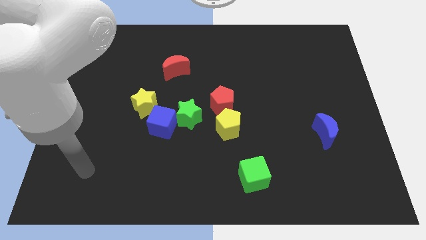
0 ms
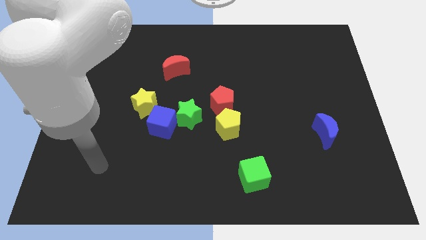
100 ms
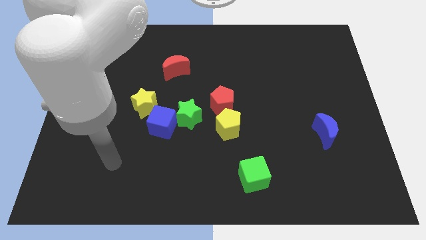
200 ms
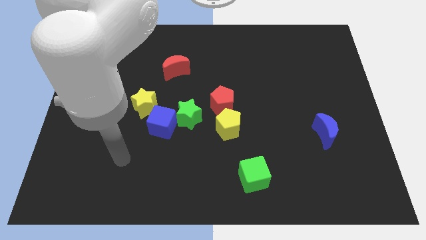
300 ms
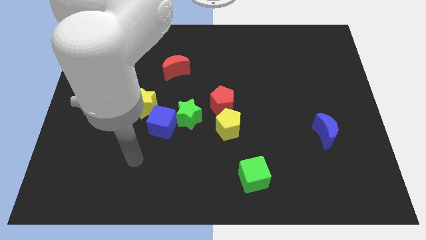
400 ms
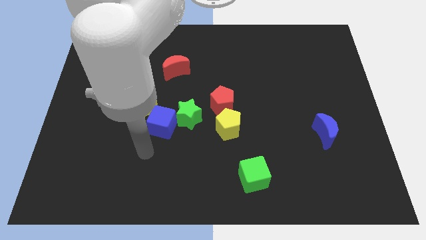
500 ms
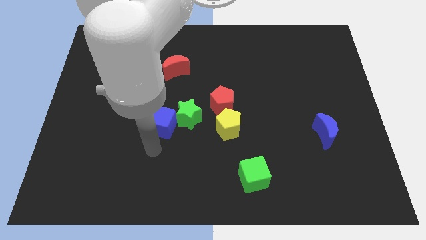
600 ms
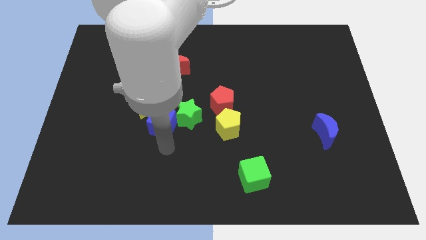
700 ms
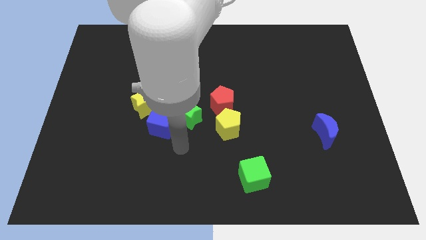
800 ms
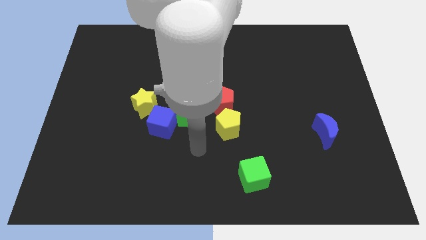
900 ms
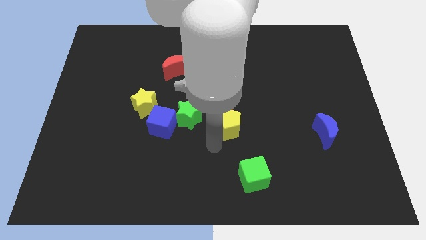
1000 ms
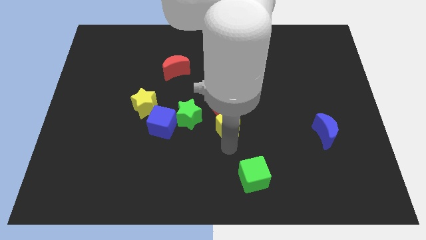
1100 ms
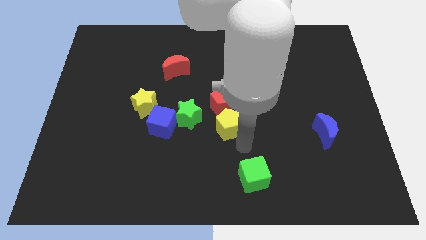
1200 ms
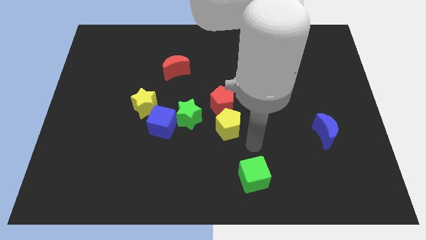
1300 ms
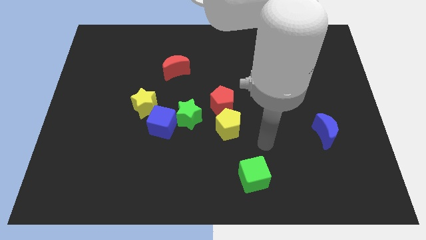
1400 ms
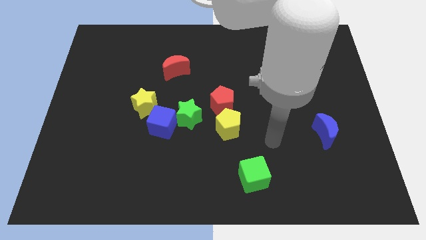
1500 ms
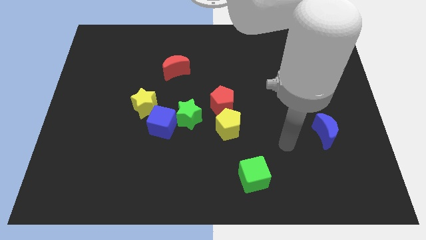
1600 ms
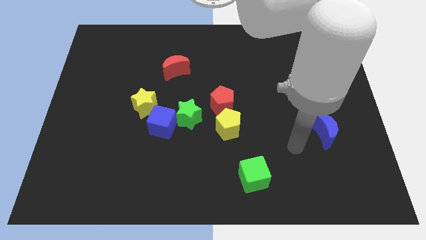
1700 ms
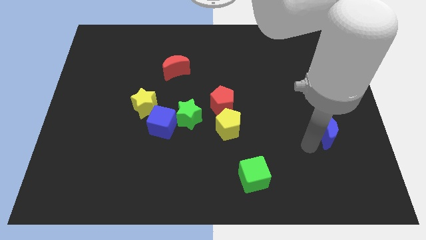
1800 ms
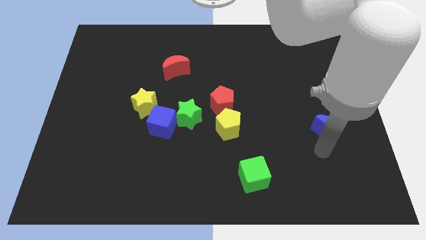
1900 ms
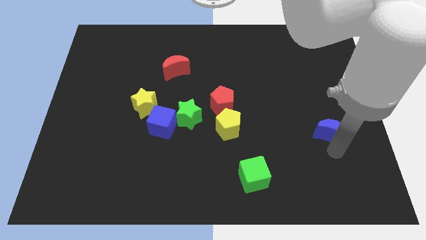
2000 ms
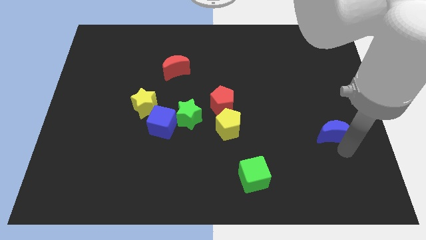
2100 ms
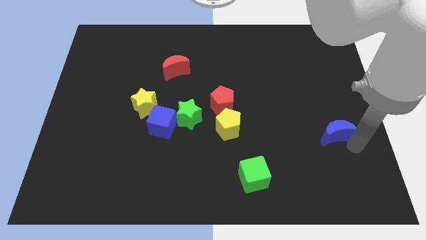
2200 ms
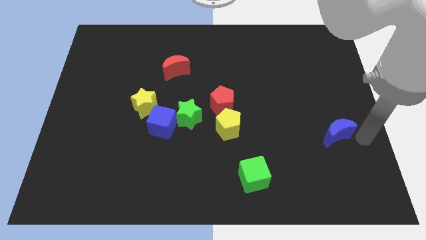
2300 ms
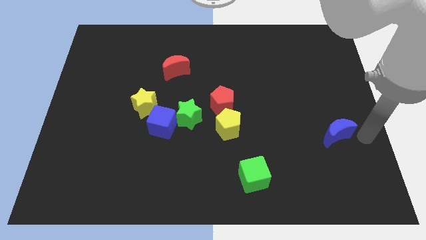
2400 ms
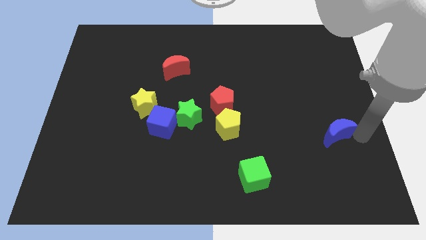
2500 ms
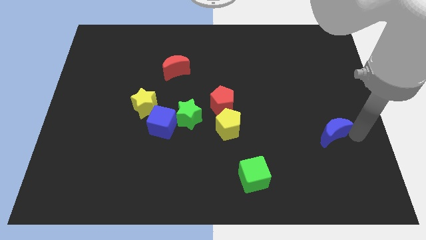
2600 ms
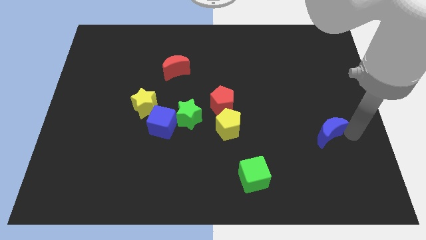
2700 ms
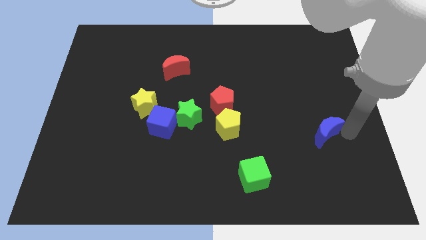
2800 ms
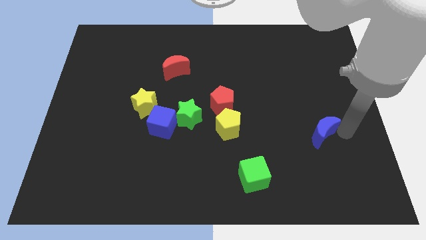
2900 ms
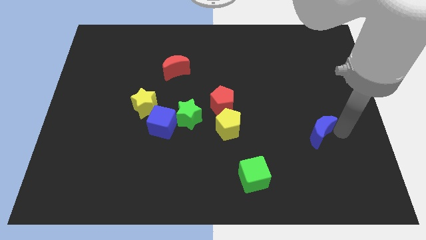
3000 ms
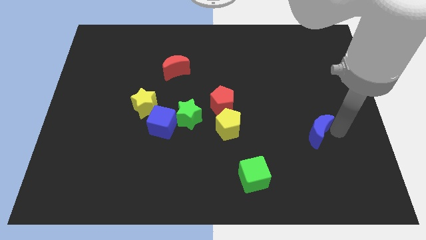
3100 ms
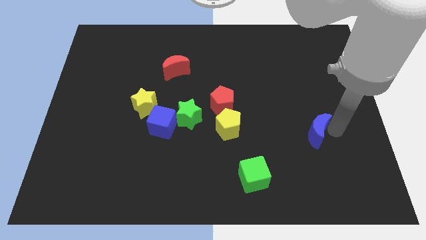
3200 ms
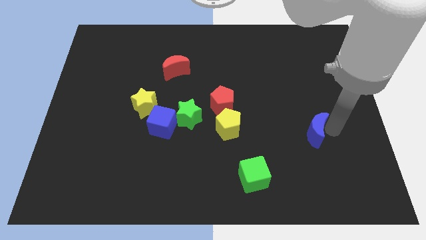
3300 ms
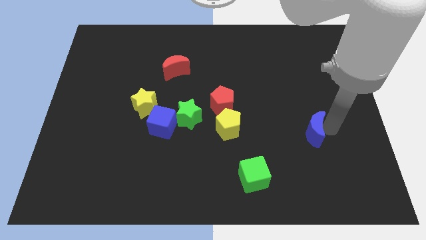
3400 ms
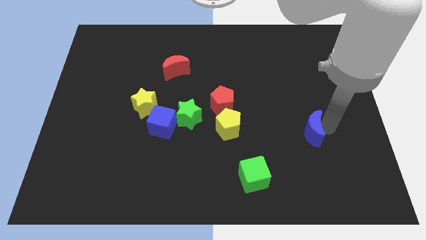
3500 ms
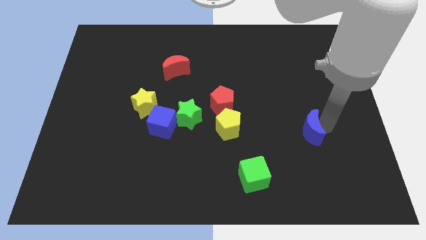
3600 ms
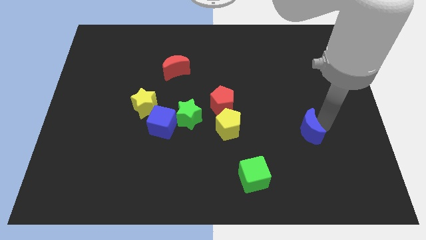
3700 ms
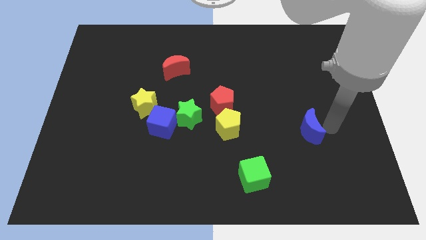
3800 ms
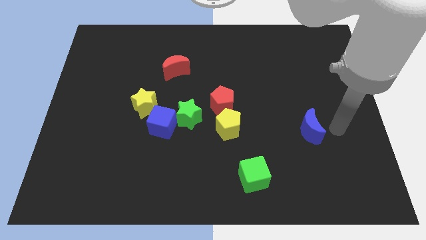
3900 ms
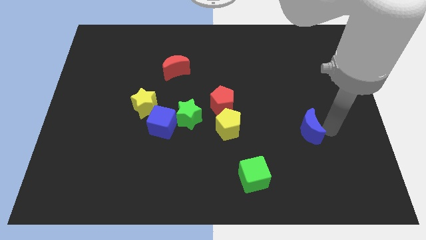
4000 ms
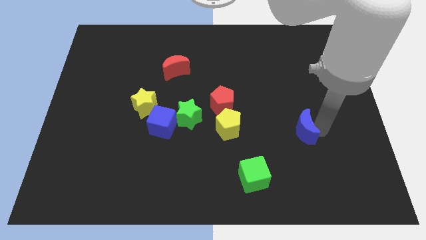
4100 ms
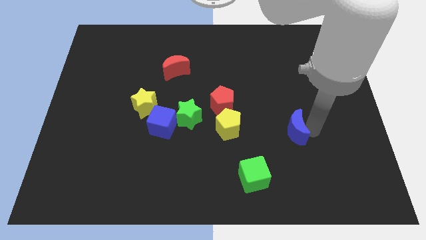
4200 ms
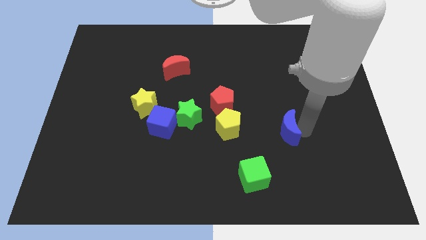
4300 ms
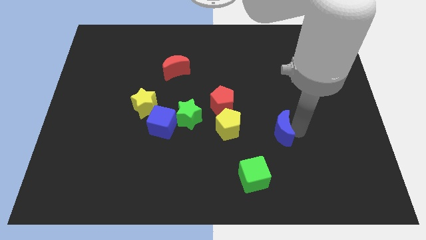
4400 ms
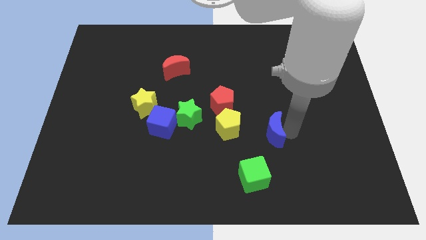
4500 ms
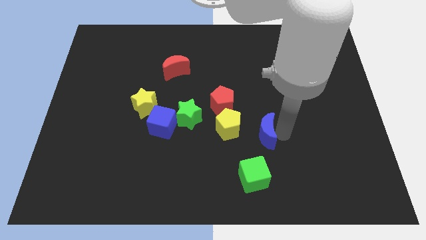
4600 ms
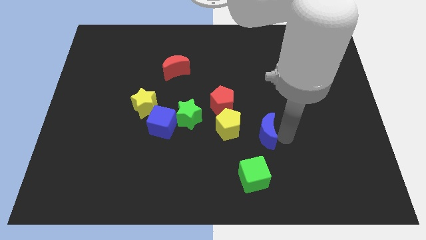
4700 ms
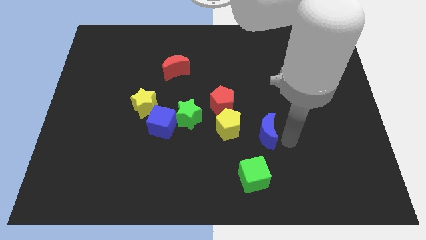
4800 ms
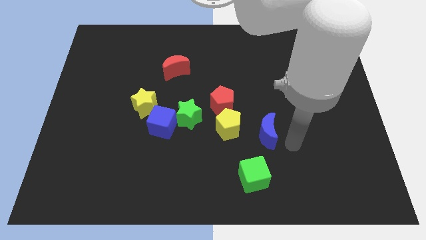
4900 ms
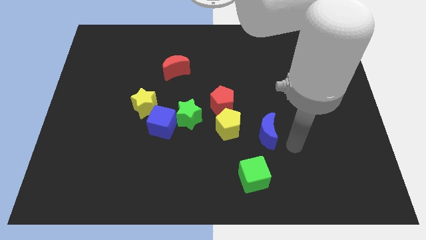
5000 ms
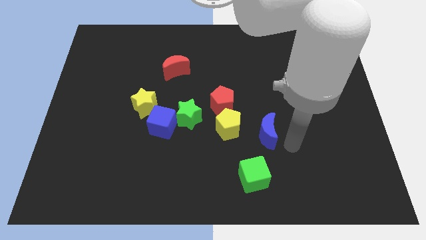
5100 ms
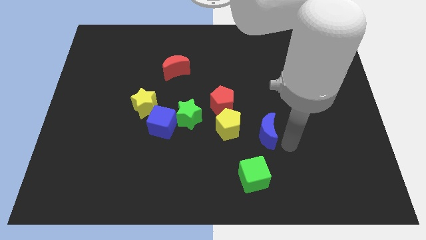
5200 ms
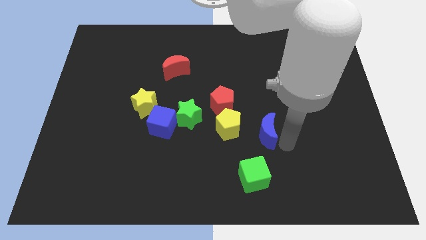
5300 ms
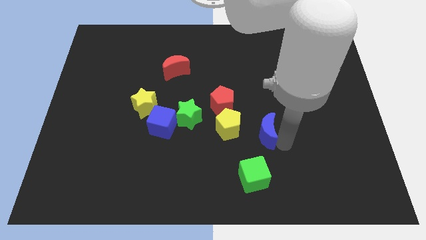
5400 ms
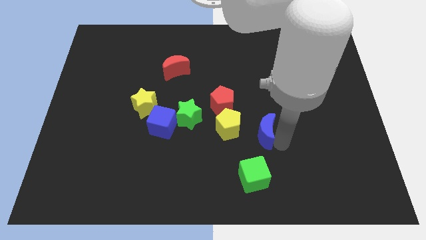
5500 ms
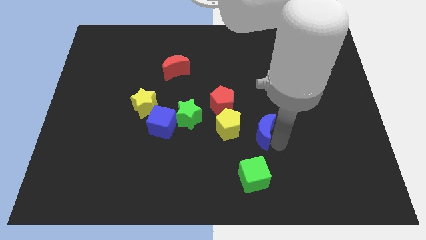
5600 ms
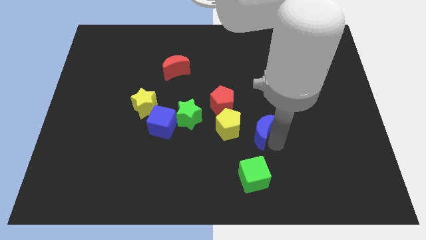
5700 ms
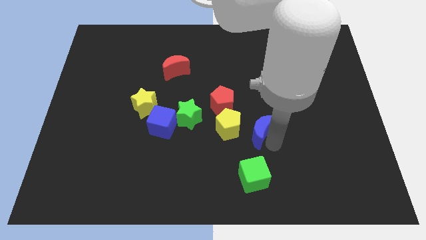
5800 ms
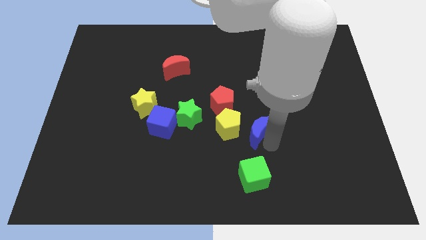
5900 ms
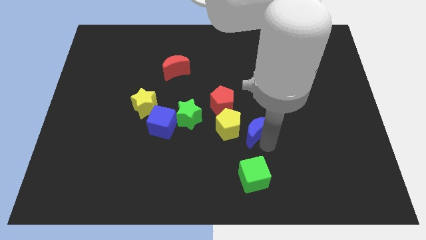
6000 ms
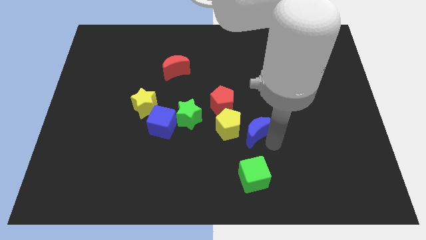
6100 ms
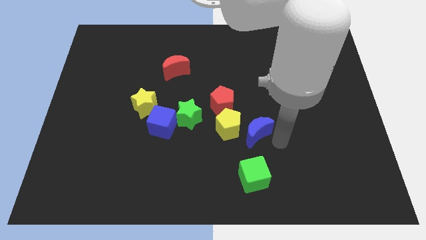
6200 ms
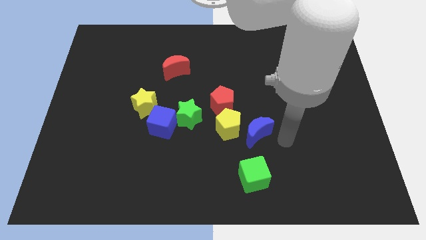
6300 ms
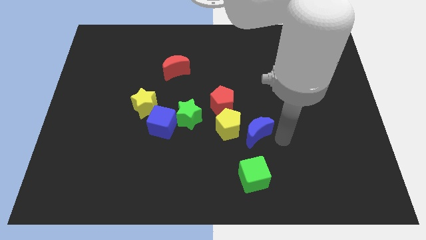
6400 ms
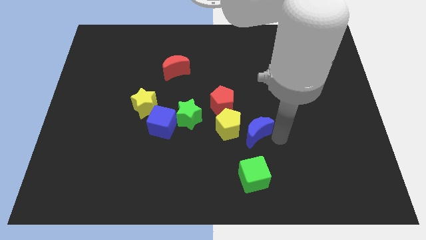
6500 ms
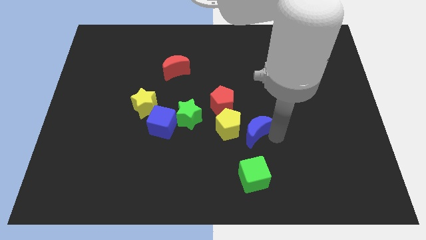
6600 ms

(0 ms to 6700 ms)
put the blue moon to the yellow pentagon
